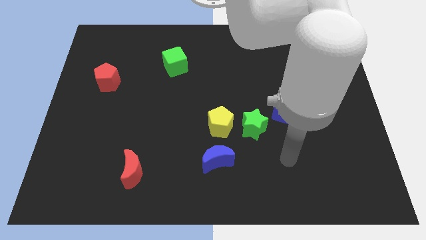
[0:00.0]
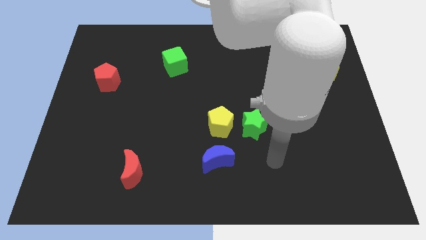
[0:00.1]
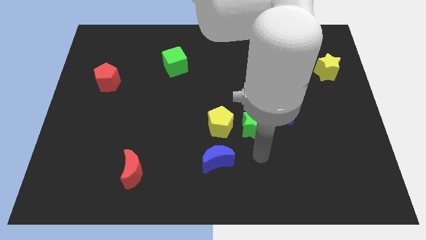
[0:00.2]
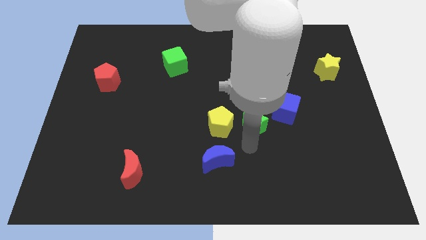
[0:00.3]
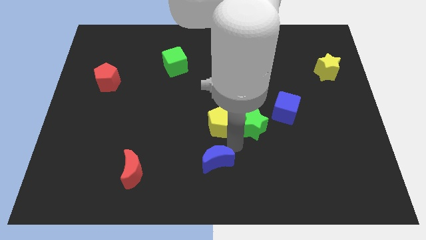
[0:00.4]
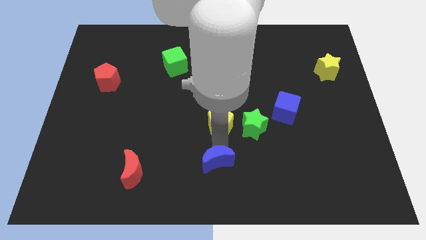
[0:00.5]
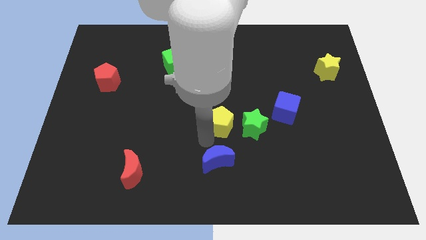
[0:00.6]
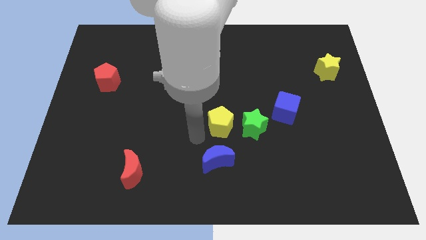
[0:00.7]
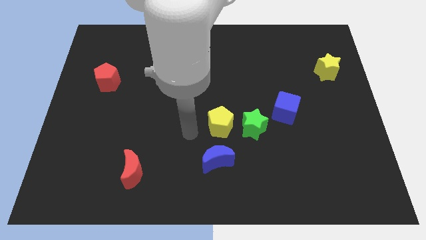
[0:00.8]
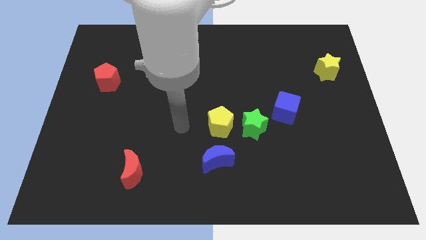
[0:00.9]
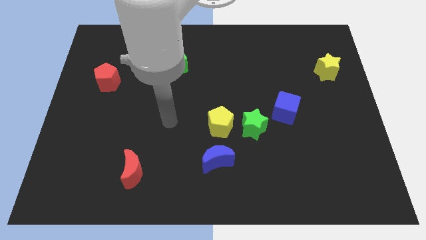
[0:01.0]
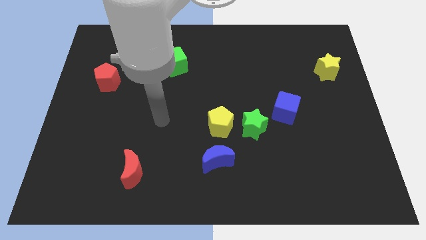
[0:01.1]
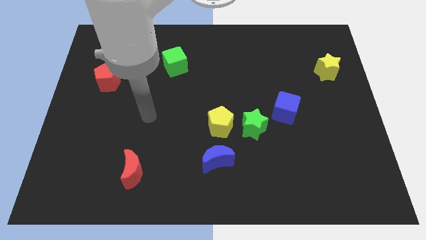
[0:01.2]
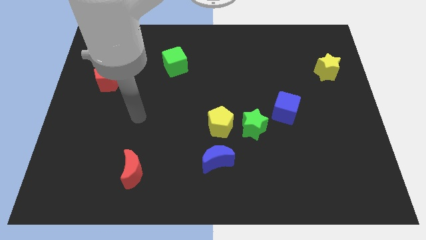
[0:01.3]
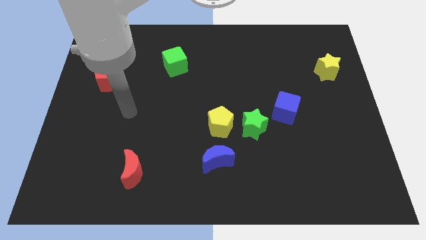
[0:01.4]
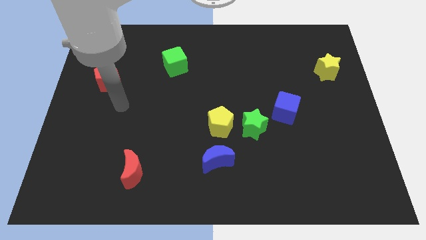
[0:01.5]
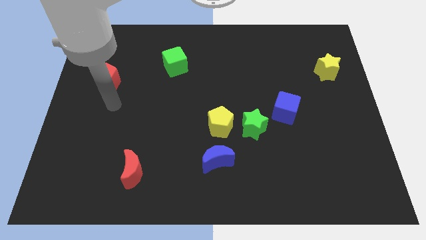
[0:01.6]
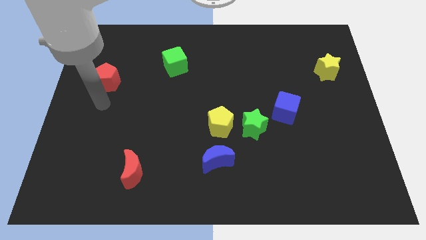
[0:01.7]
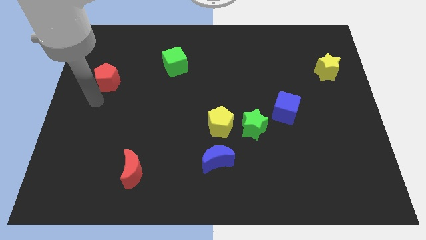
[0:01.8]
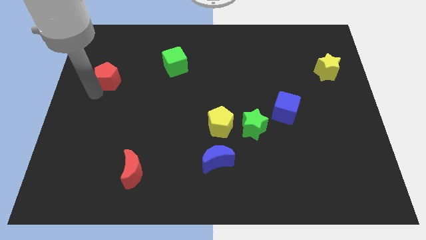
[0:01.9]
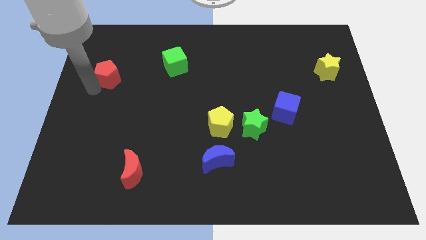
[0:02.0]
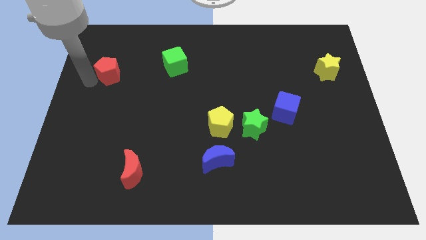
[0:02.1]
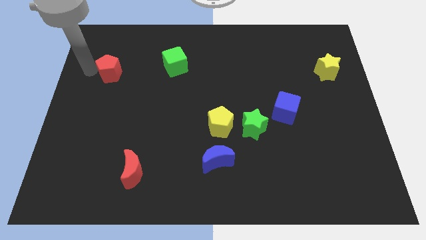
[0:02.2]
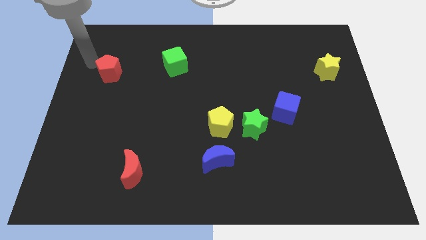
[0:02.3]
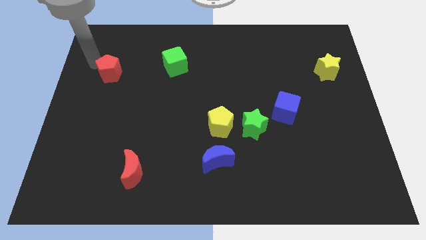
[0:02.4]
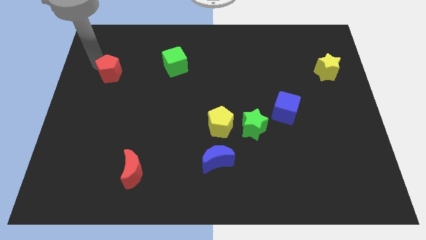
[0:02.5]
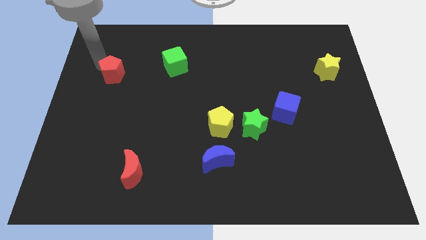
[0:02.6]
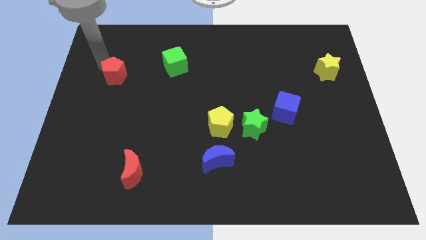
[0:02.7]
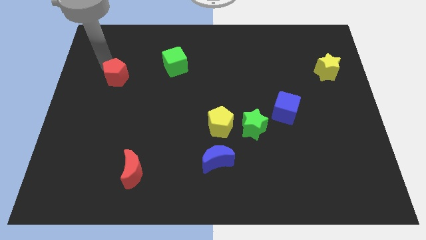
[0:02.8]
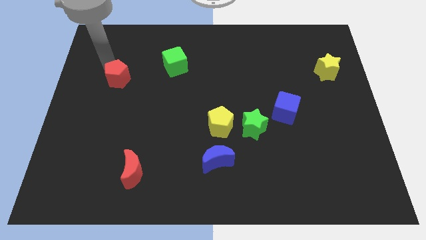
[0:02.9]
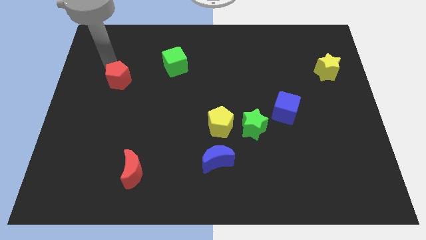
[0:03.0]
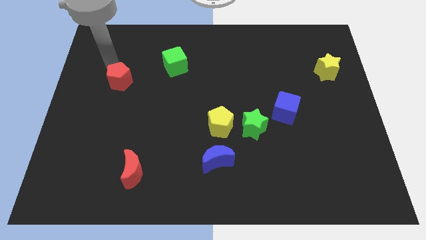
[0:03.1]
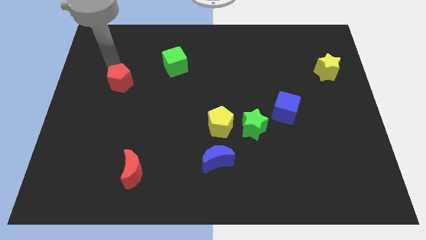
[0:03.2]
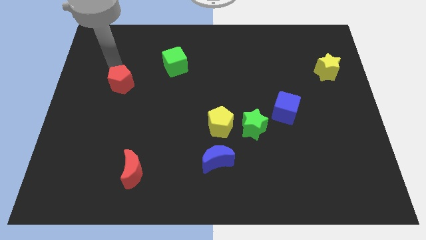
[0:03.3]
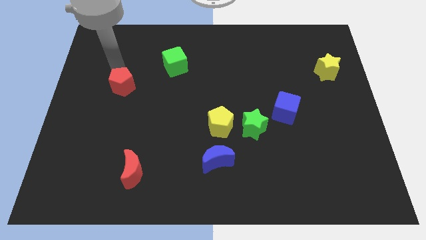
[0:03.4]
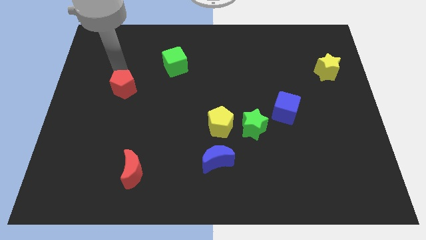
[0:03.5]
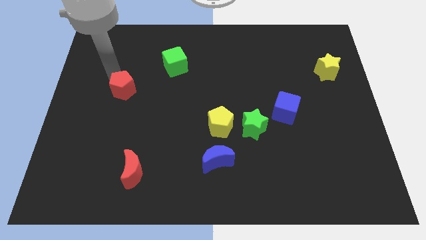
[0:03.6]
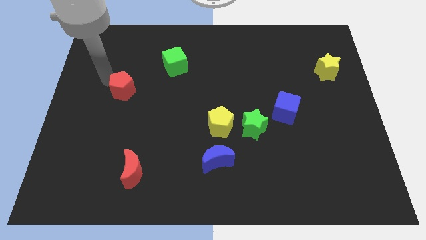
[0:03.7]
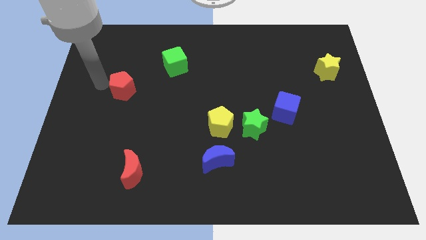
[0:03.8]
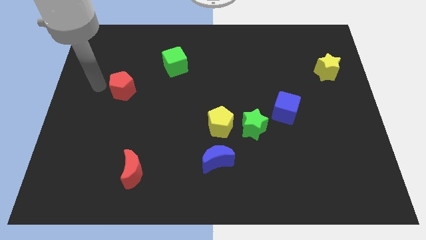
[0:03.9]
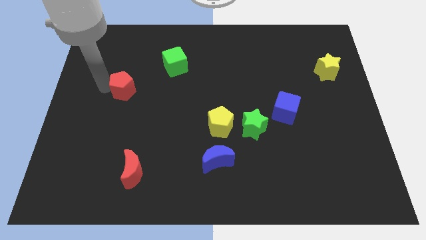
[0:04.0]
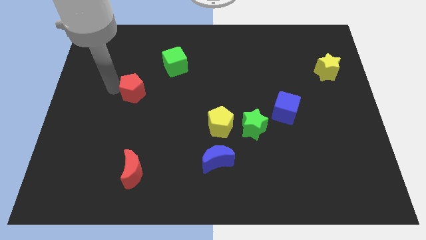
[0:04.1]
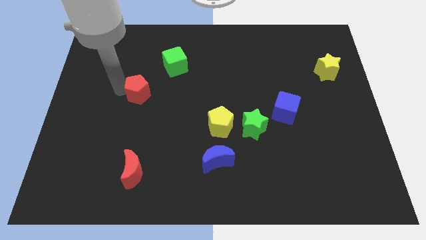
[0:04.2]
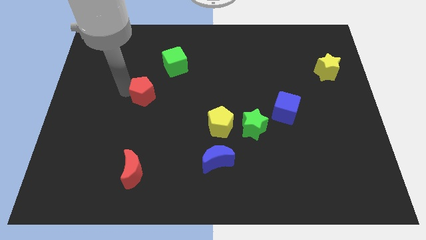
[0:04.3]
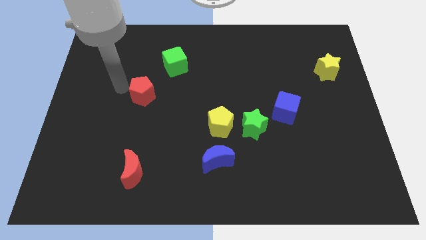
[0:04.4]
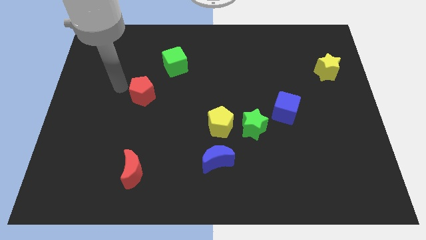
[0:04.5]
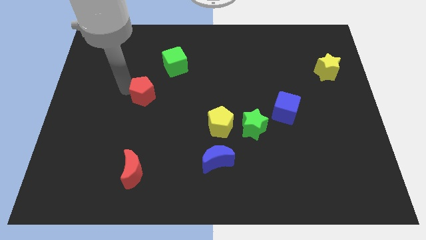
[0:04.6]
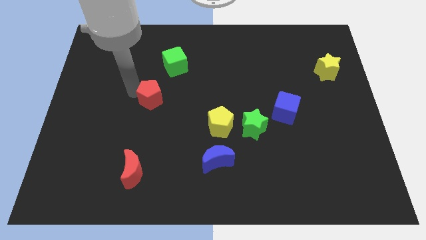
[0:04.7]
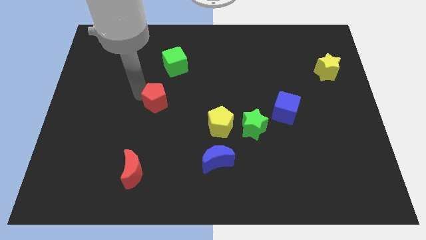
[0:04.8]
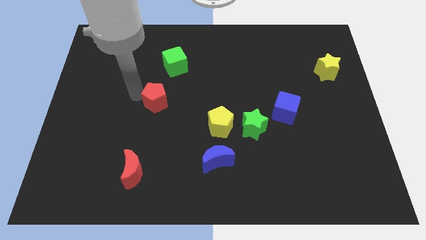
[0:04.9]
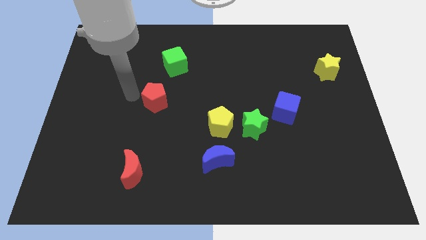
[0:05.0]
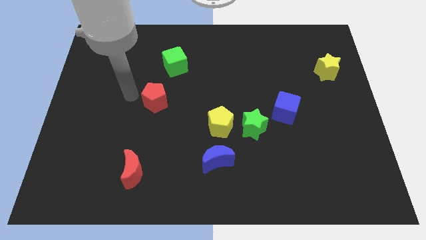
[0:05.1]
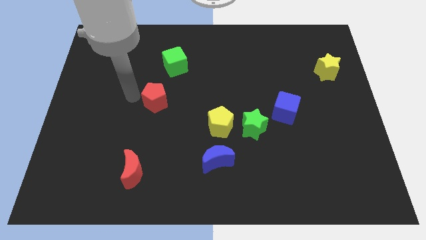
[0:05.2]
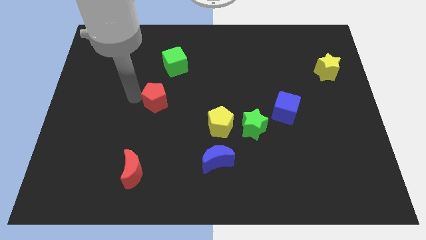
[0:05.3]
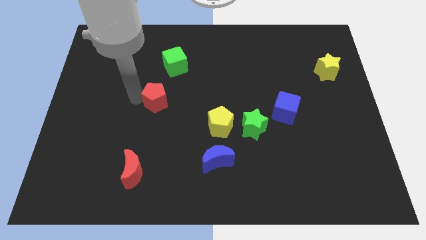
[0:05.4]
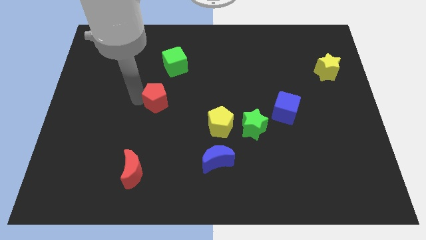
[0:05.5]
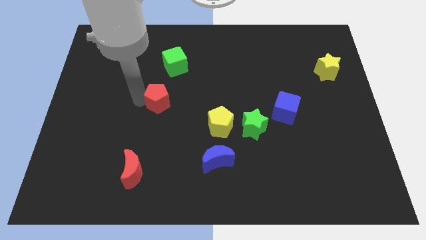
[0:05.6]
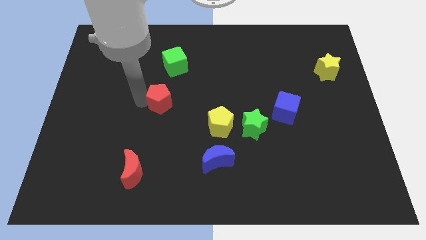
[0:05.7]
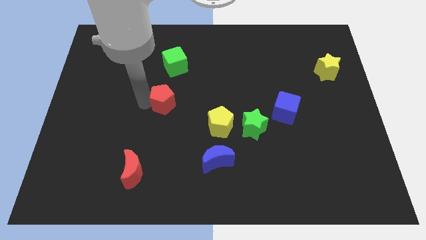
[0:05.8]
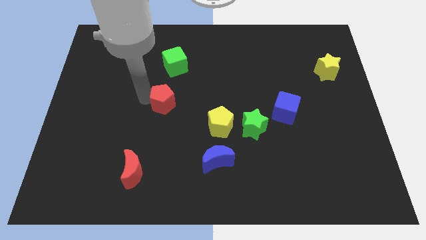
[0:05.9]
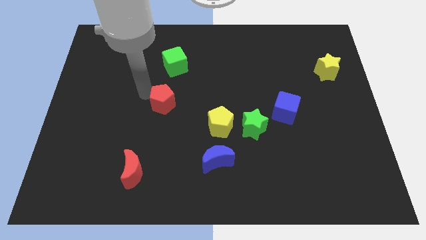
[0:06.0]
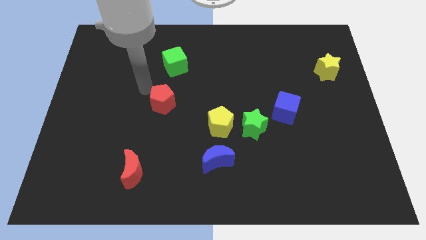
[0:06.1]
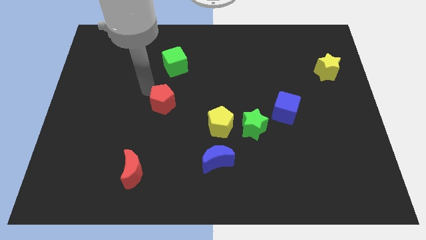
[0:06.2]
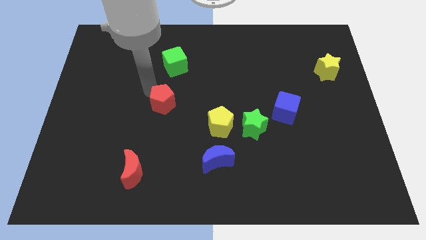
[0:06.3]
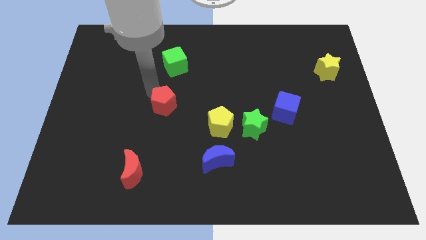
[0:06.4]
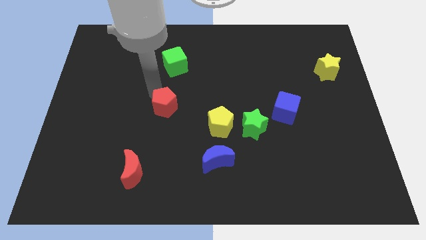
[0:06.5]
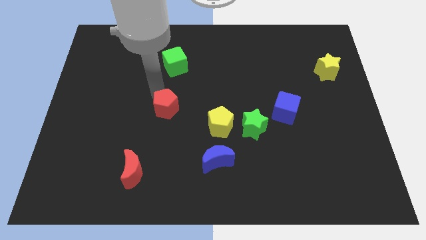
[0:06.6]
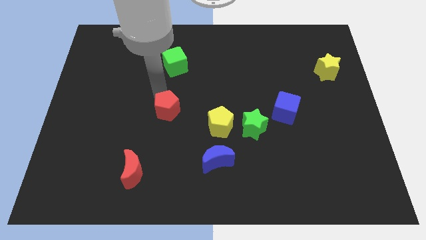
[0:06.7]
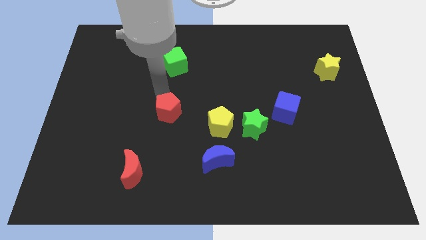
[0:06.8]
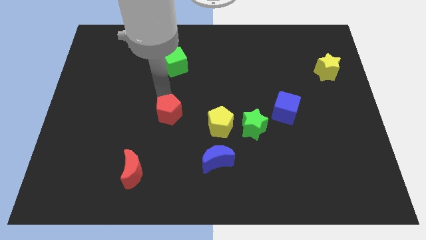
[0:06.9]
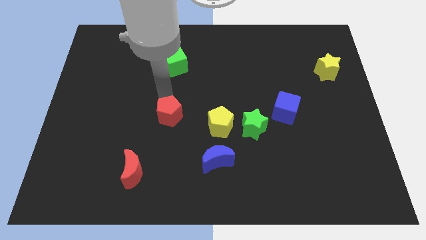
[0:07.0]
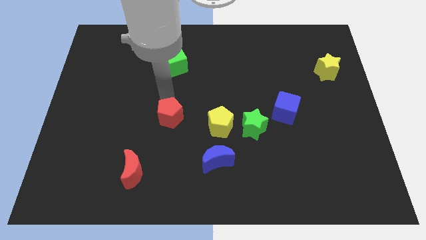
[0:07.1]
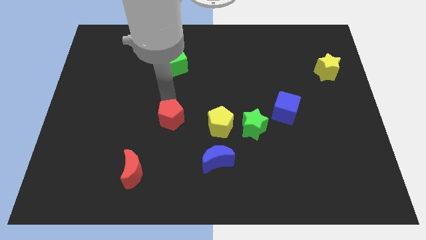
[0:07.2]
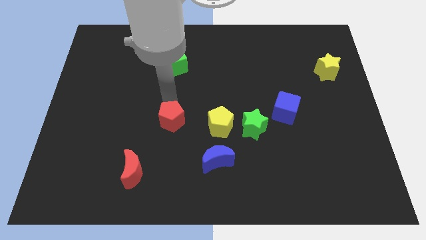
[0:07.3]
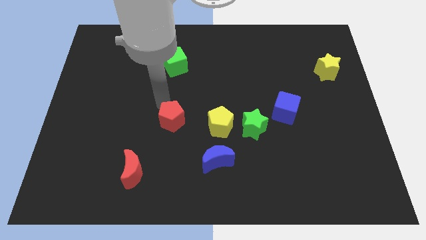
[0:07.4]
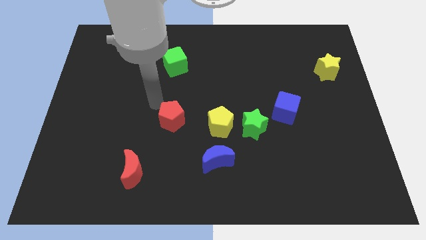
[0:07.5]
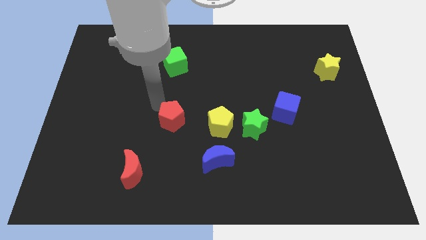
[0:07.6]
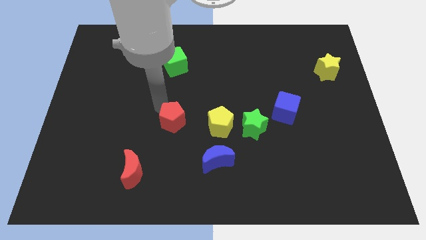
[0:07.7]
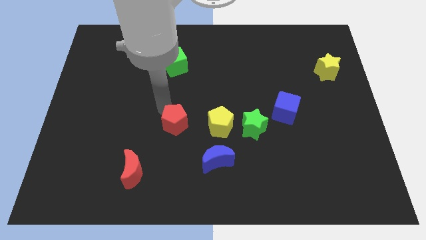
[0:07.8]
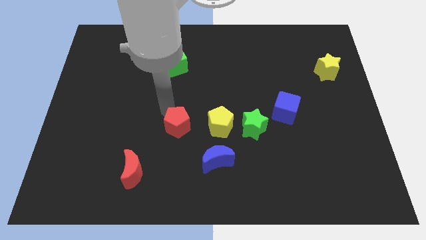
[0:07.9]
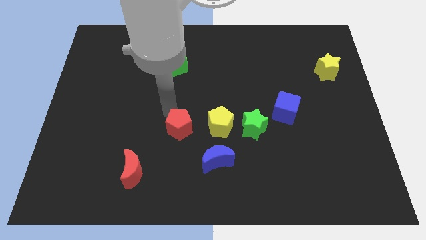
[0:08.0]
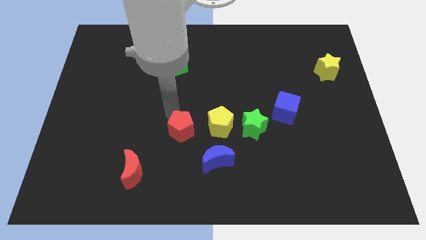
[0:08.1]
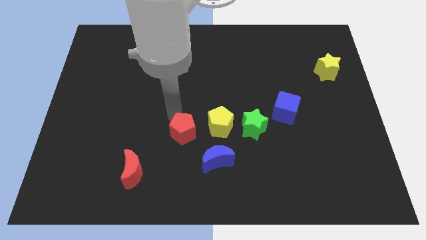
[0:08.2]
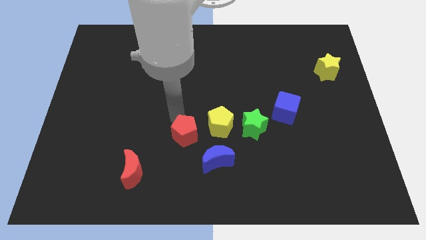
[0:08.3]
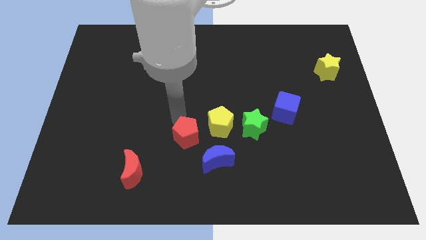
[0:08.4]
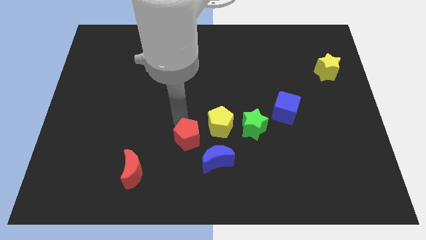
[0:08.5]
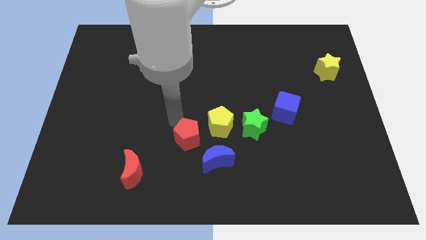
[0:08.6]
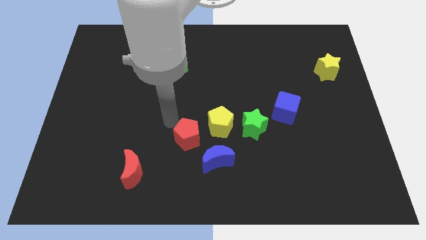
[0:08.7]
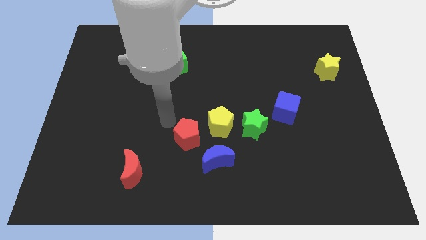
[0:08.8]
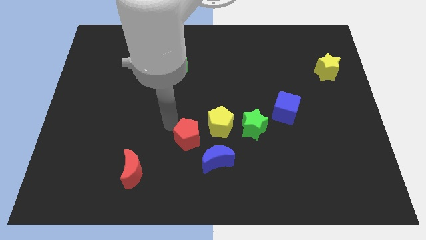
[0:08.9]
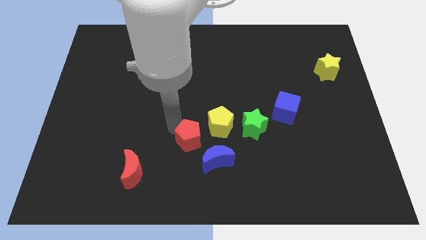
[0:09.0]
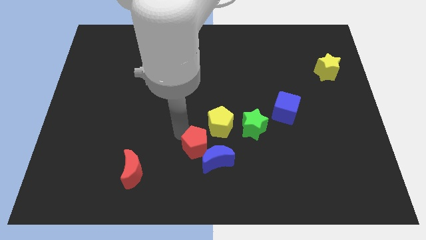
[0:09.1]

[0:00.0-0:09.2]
move the red pentagon next to the blue moon
